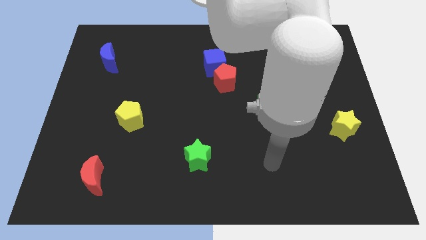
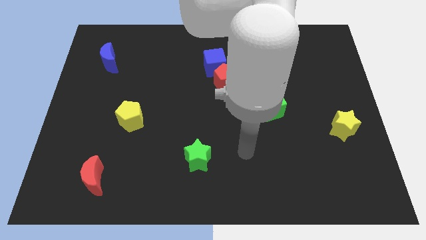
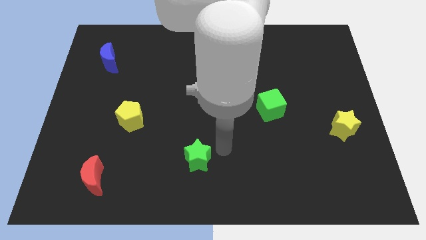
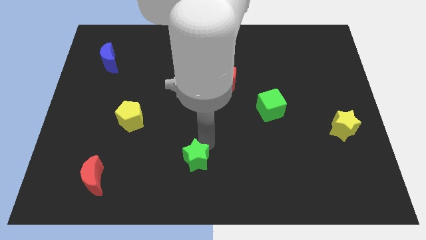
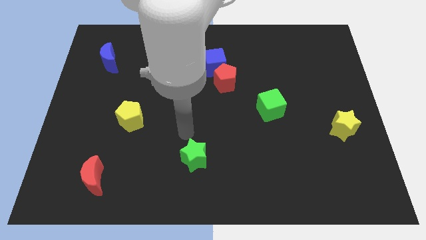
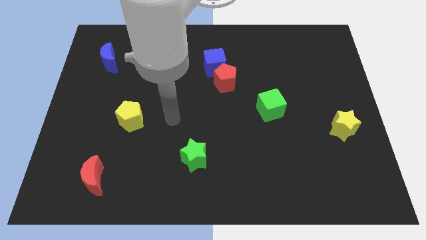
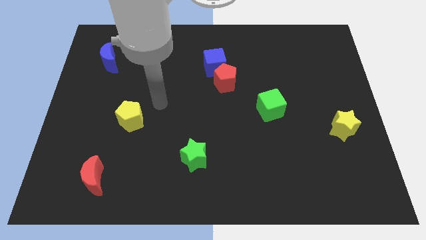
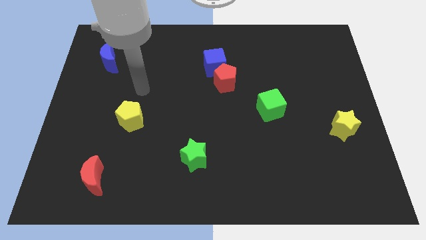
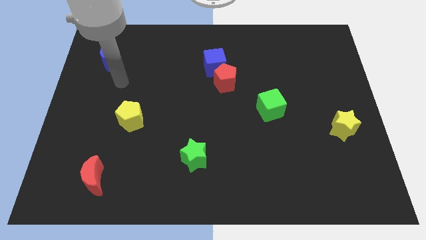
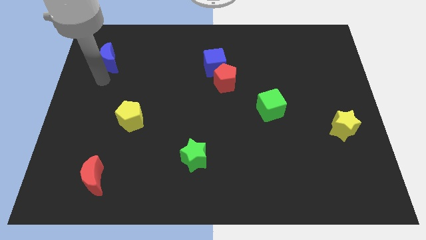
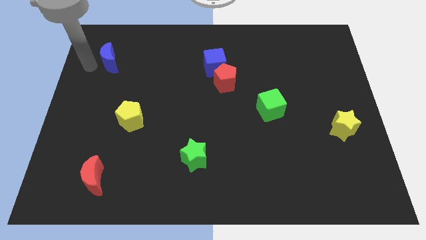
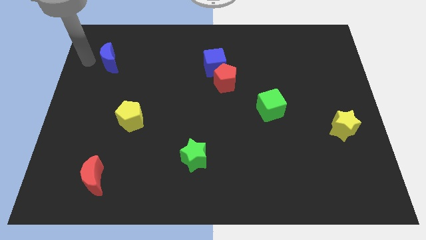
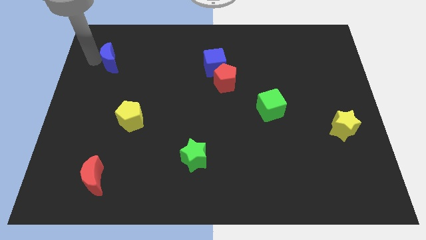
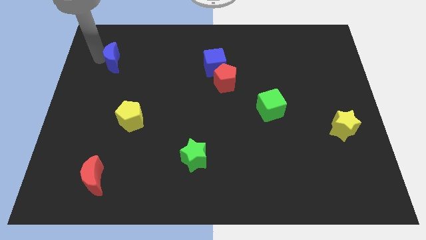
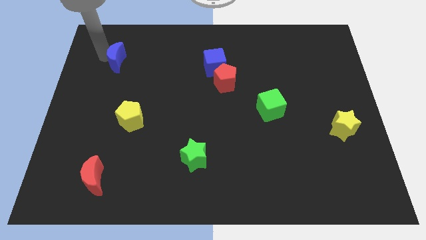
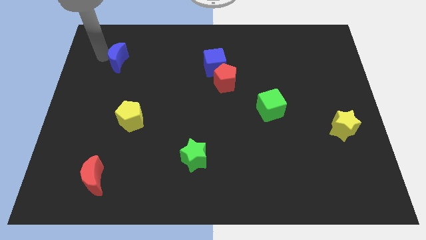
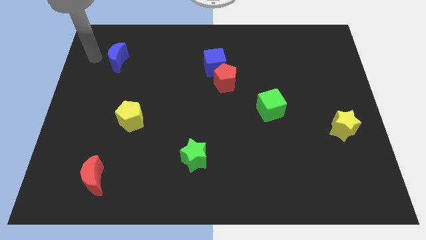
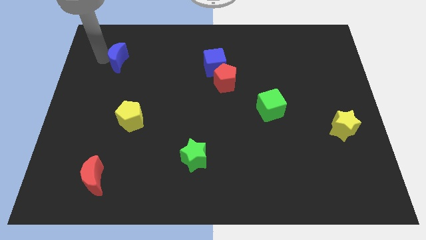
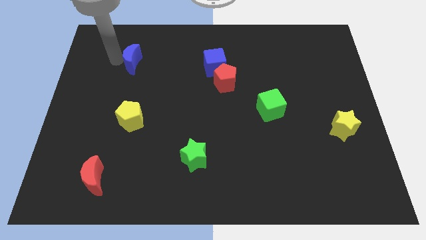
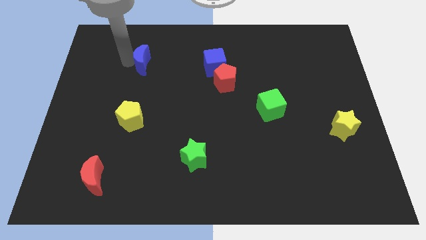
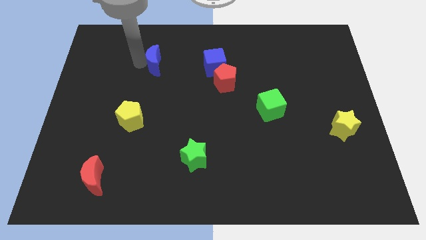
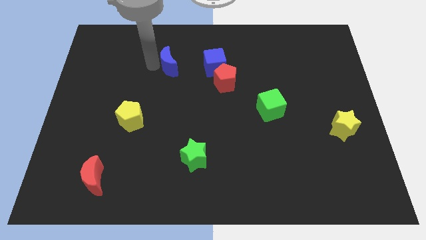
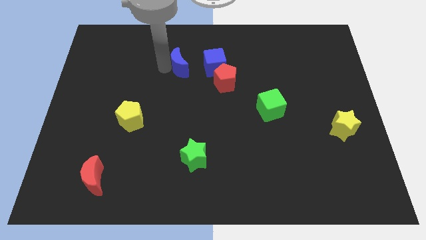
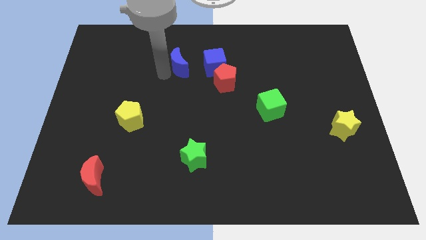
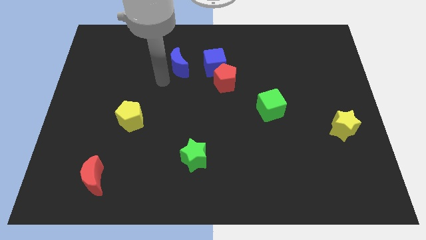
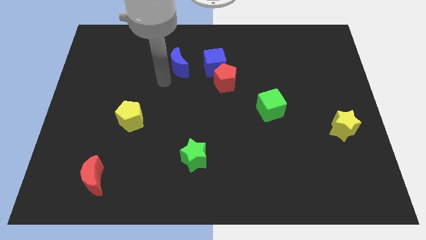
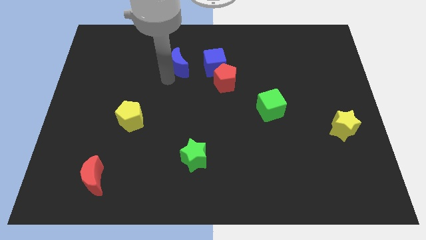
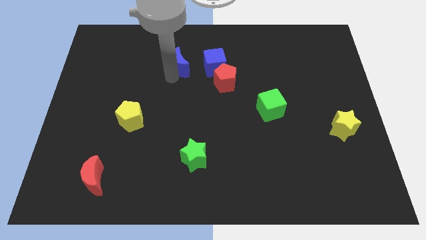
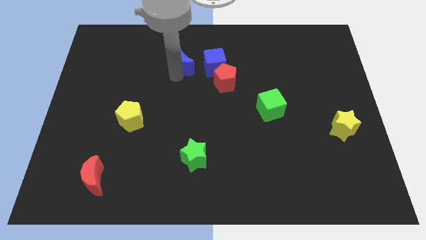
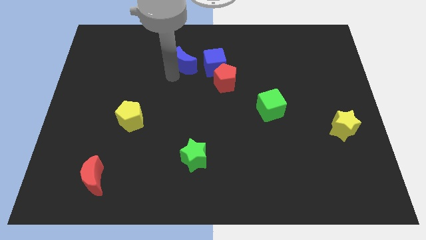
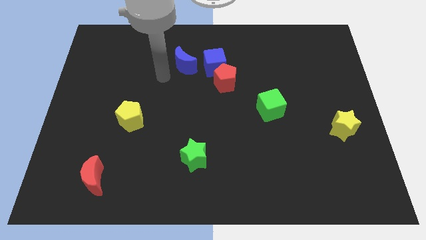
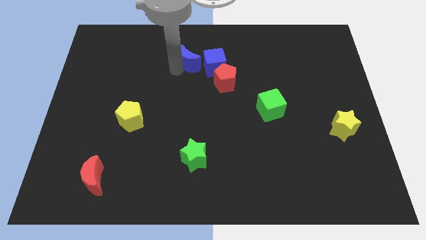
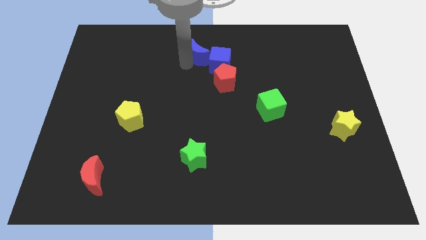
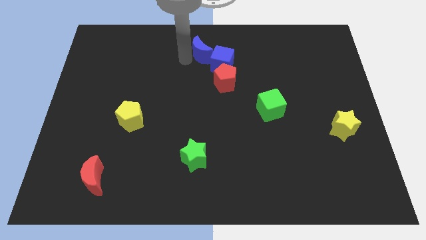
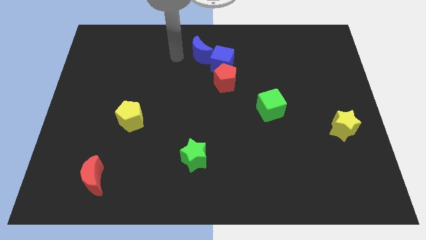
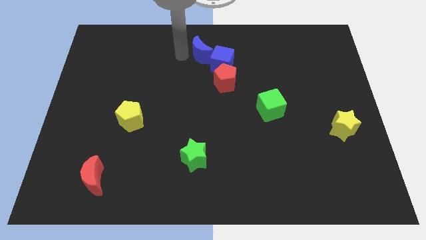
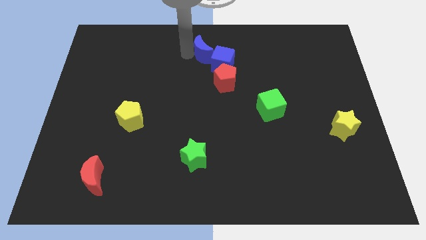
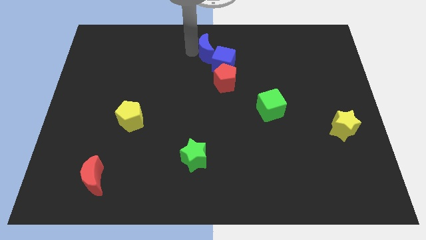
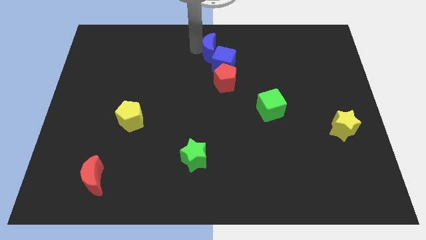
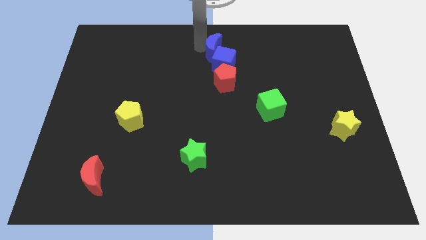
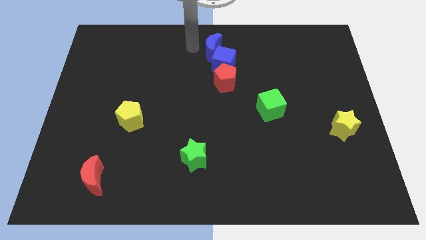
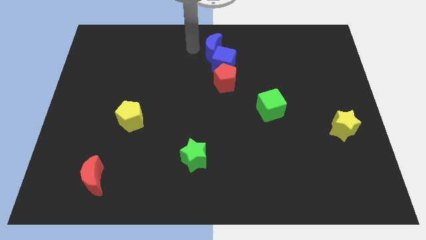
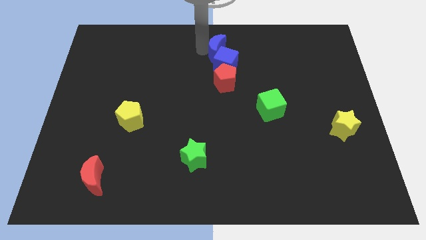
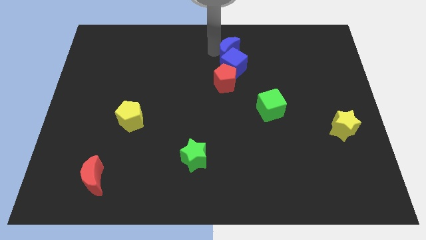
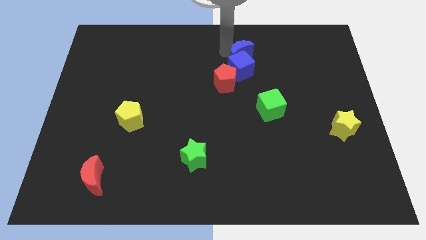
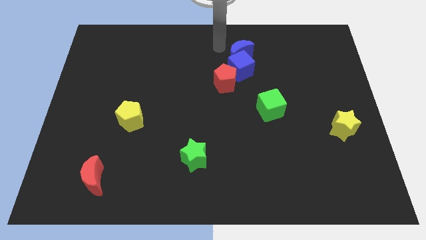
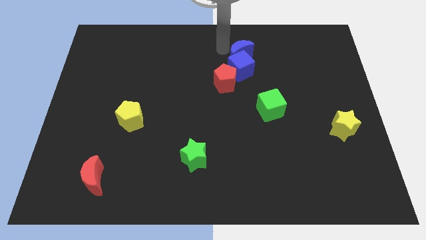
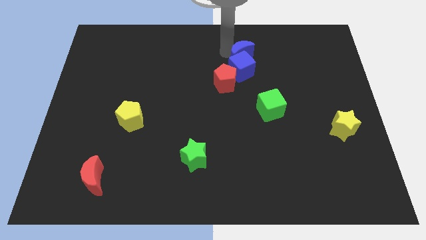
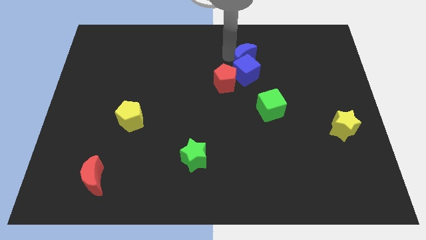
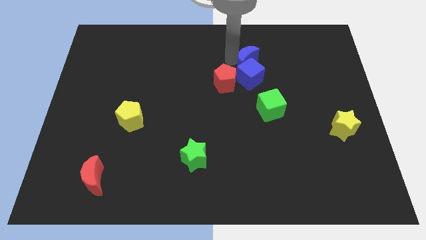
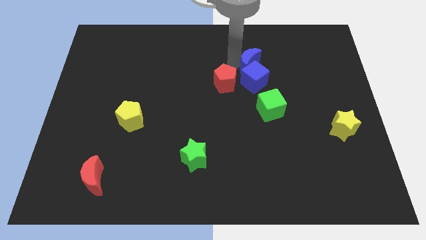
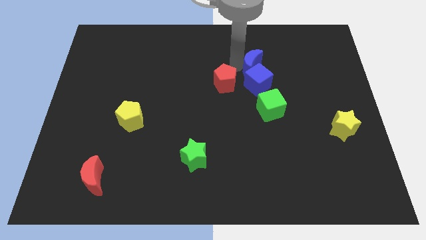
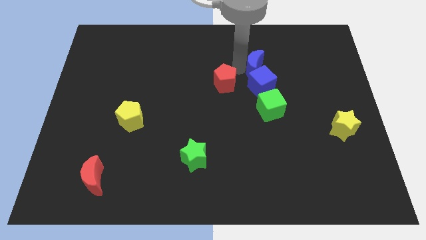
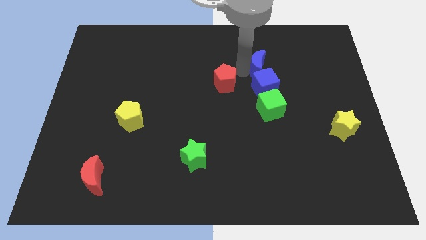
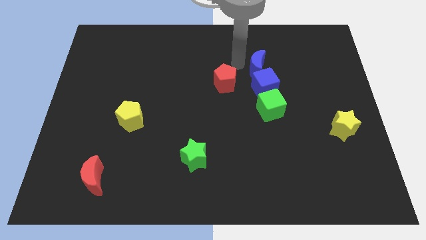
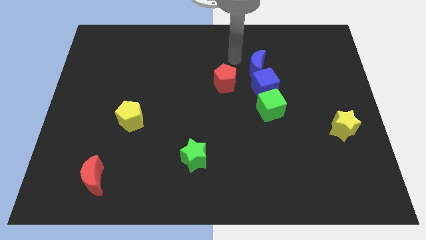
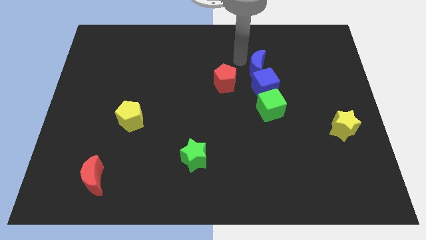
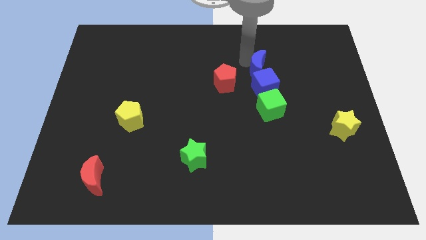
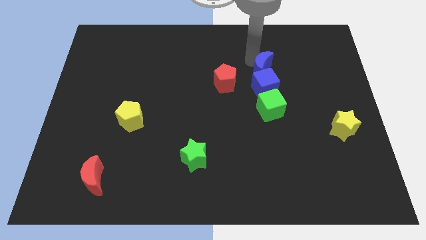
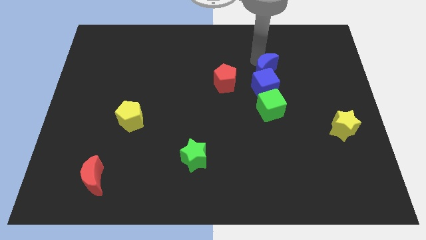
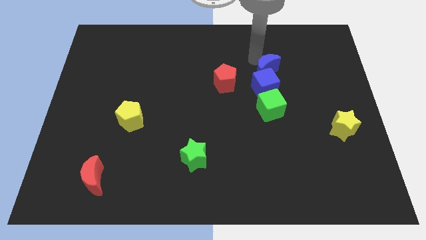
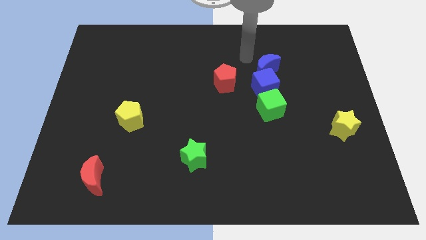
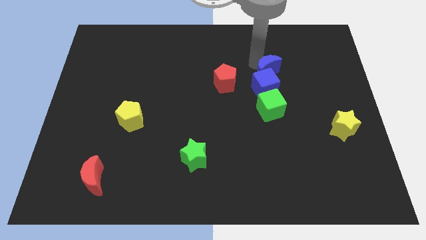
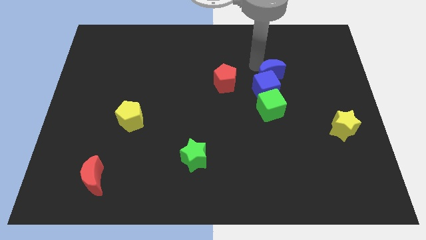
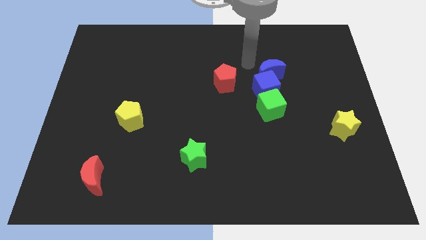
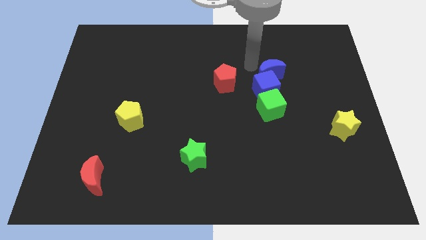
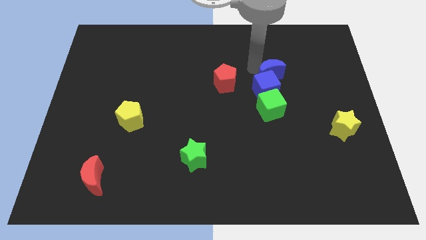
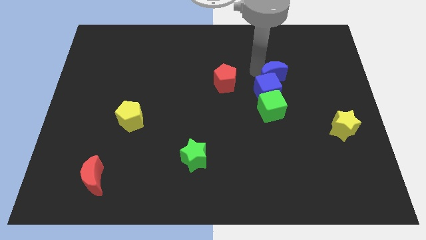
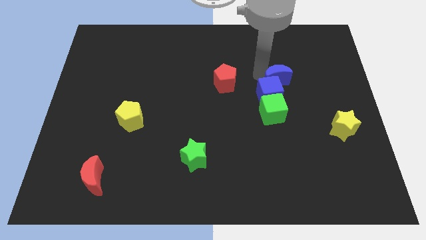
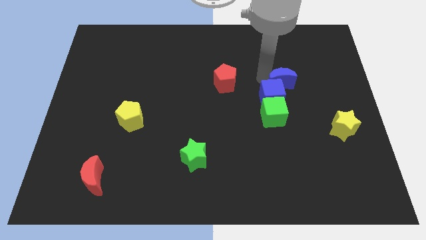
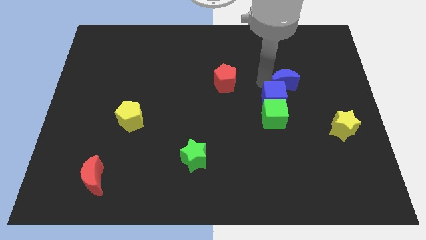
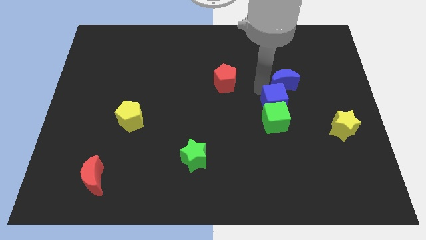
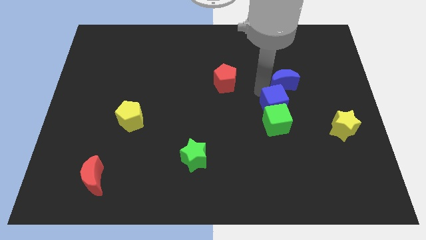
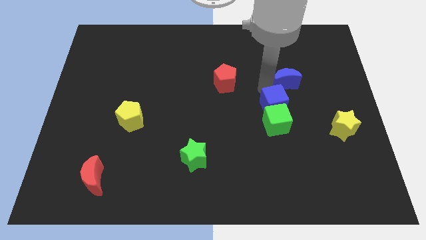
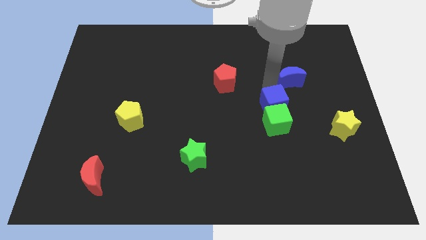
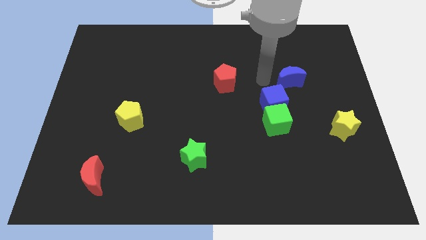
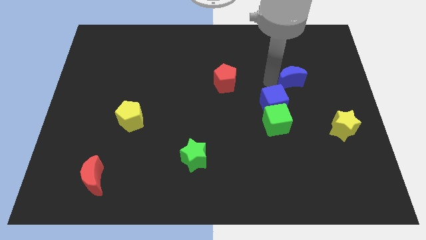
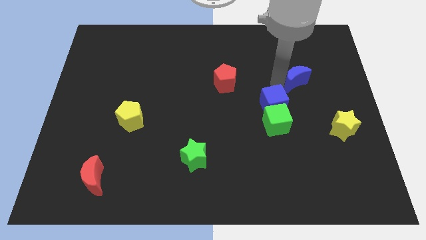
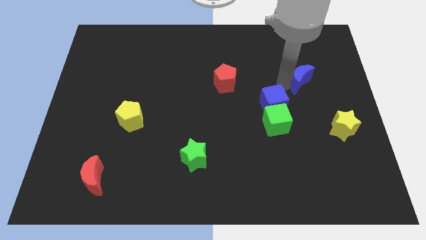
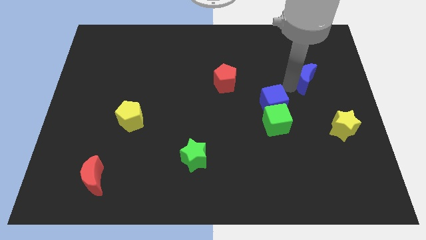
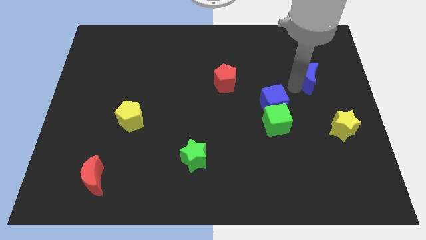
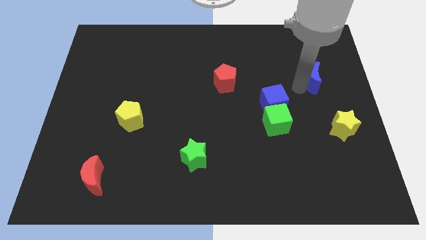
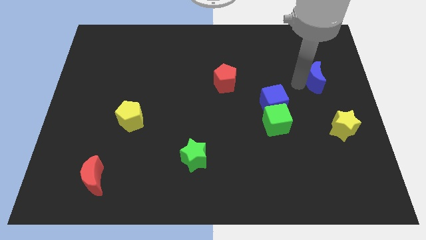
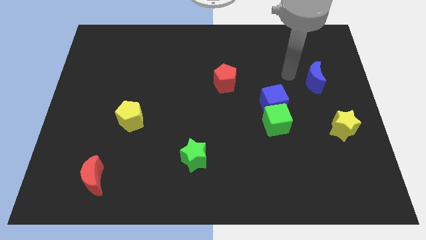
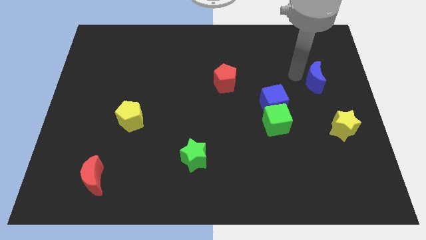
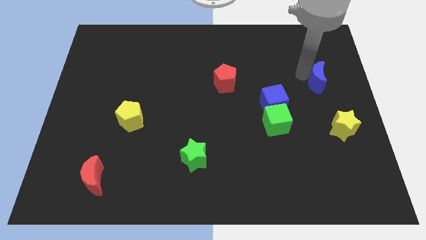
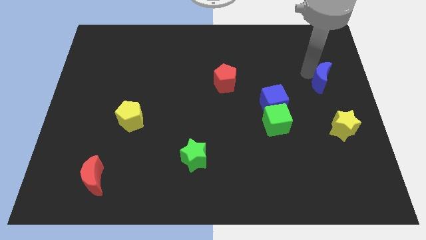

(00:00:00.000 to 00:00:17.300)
slide the blue moon to the right side of the board
